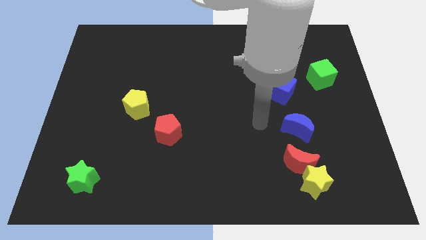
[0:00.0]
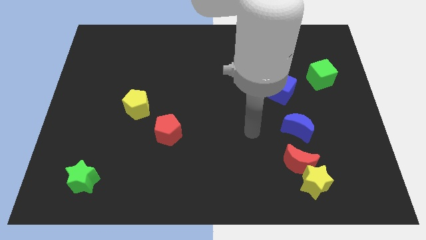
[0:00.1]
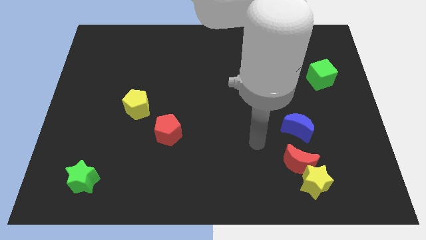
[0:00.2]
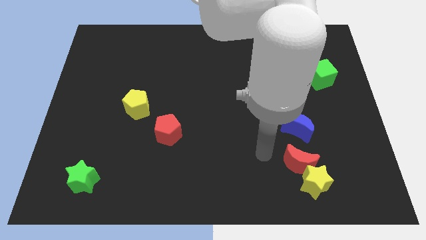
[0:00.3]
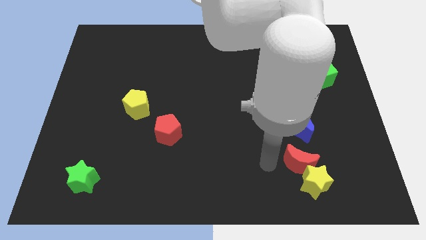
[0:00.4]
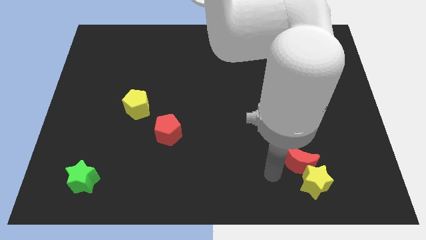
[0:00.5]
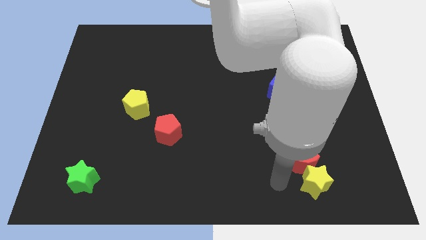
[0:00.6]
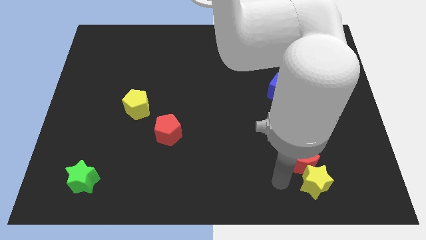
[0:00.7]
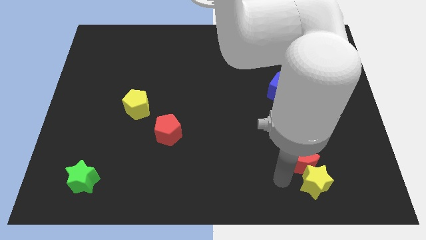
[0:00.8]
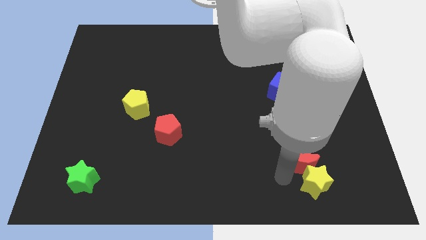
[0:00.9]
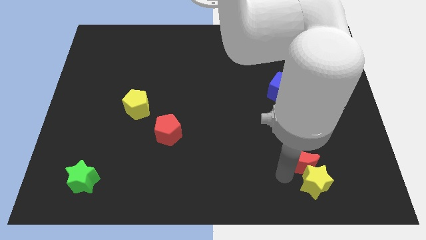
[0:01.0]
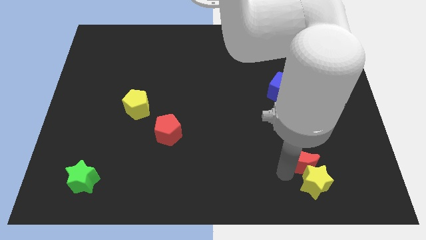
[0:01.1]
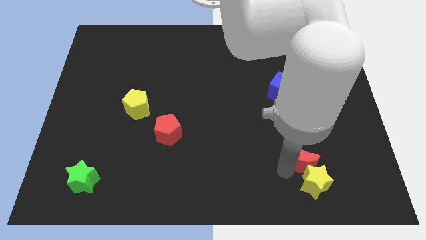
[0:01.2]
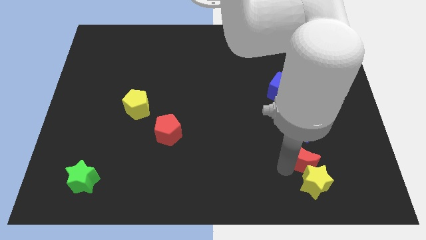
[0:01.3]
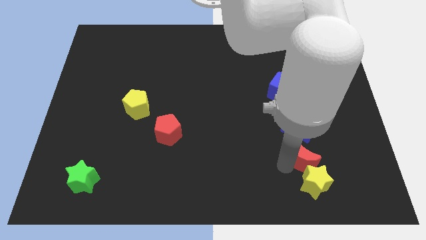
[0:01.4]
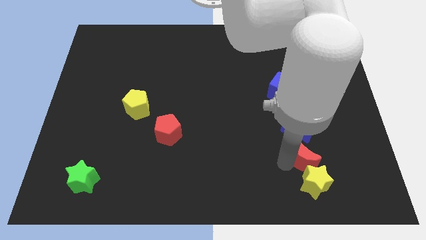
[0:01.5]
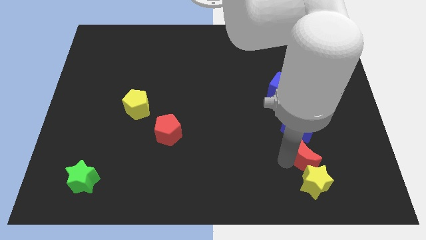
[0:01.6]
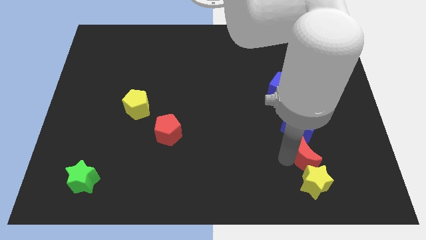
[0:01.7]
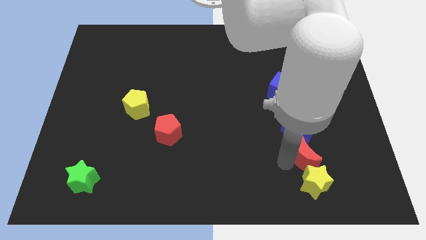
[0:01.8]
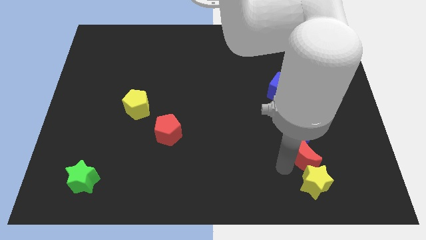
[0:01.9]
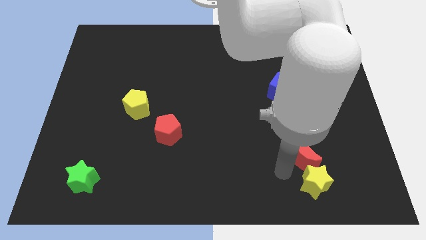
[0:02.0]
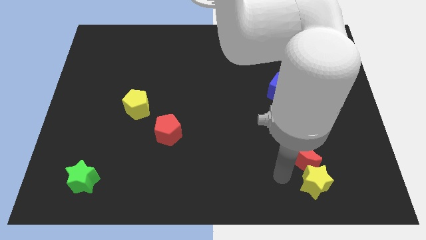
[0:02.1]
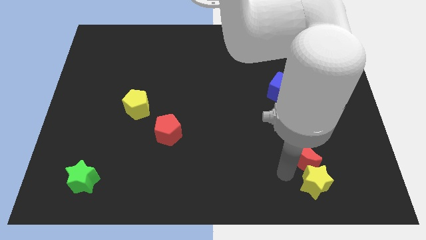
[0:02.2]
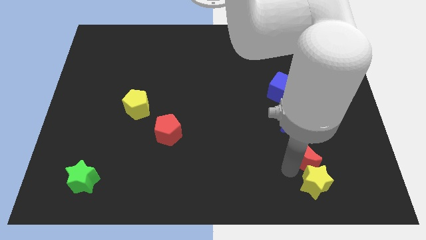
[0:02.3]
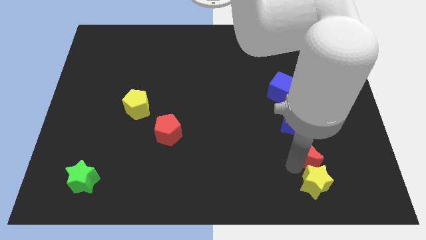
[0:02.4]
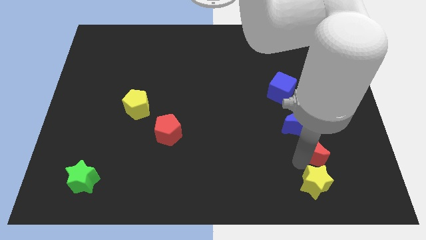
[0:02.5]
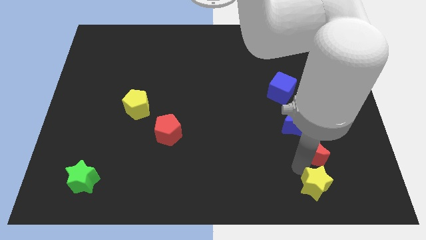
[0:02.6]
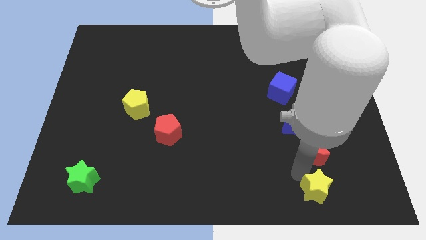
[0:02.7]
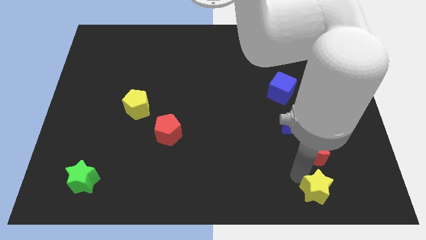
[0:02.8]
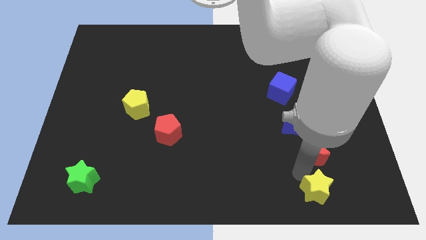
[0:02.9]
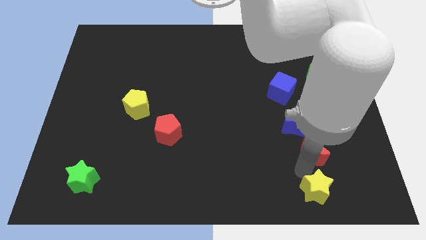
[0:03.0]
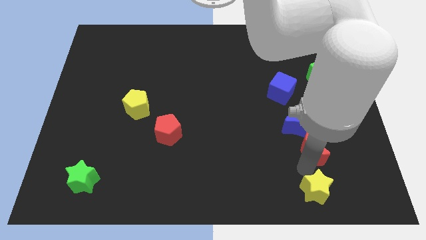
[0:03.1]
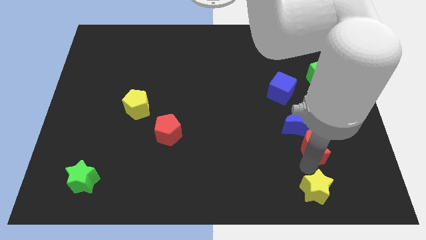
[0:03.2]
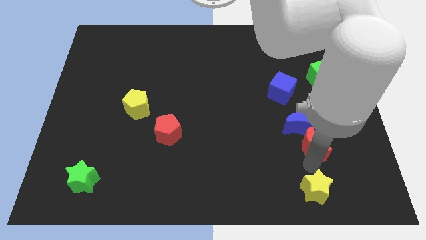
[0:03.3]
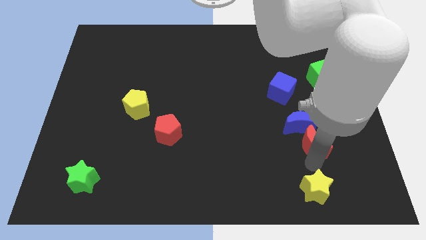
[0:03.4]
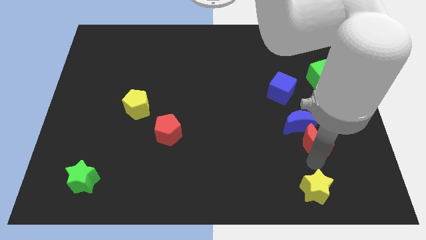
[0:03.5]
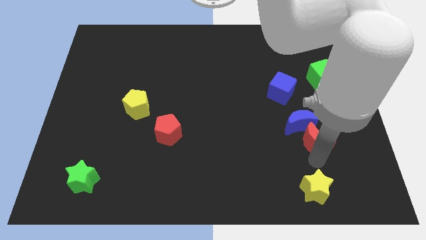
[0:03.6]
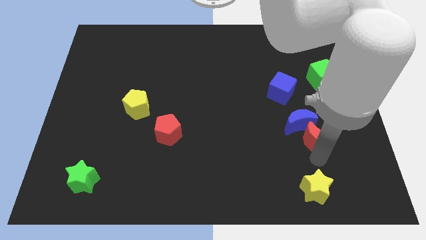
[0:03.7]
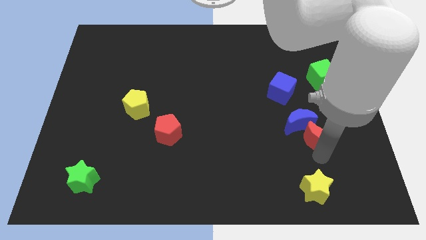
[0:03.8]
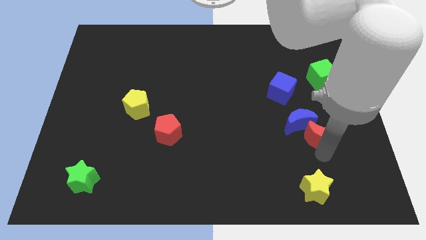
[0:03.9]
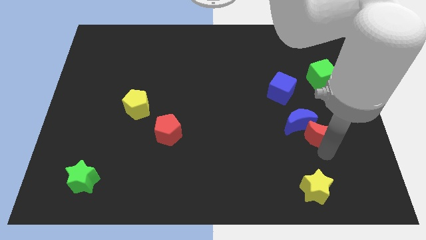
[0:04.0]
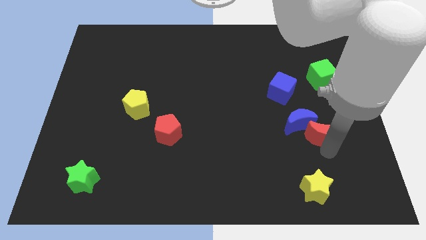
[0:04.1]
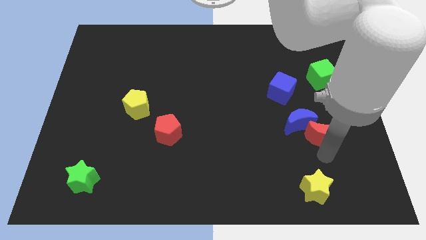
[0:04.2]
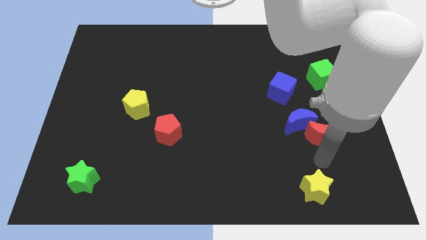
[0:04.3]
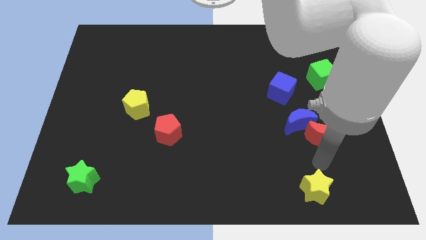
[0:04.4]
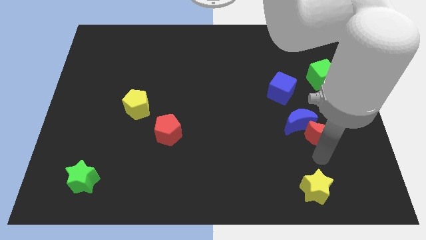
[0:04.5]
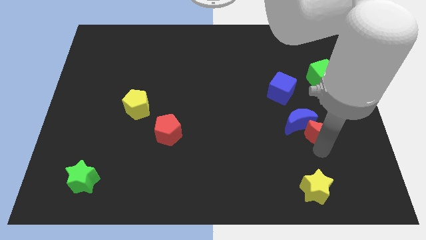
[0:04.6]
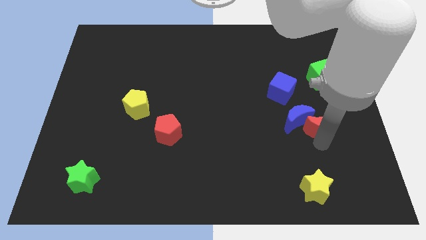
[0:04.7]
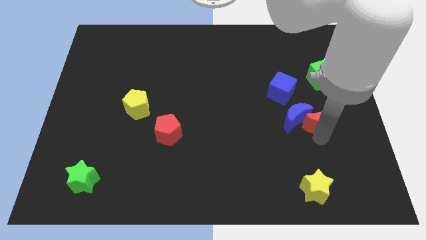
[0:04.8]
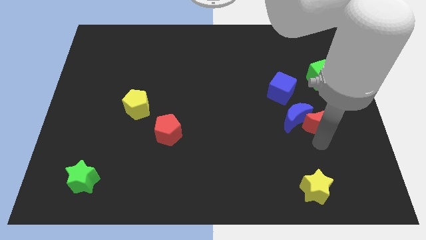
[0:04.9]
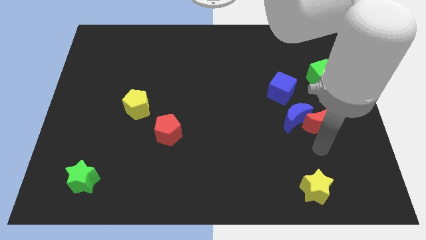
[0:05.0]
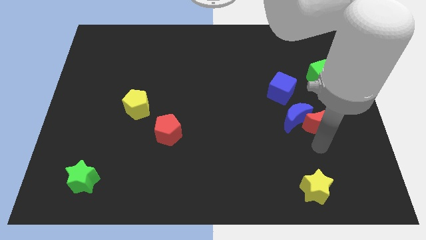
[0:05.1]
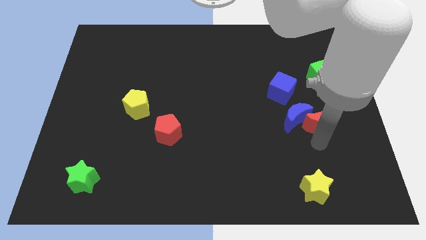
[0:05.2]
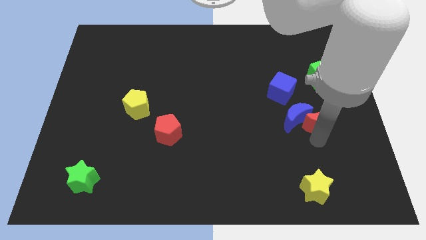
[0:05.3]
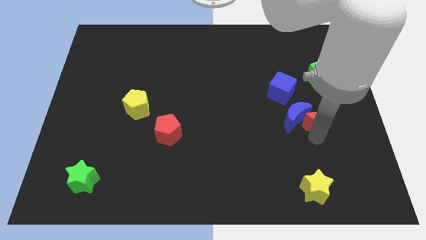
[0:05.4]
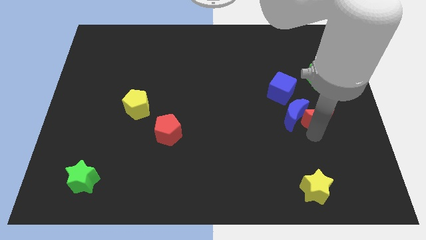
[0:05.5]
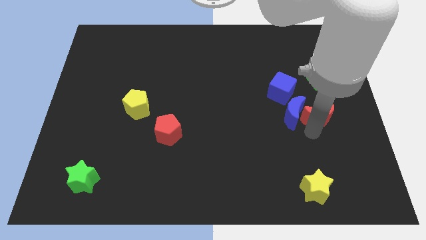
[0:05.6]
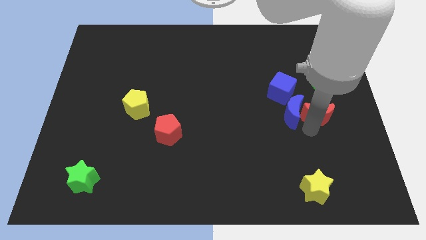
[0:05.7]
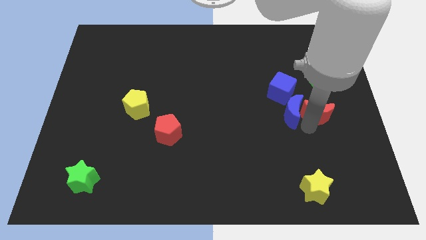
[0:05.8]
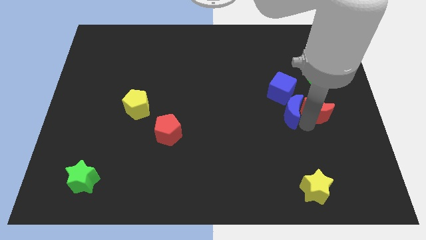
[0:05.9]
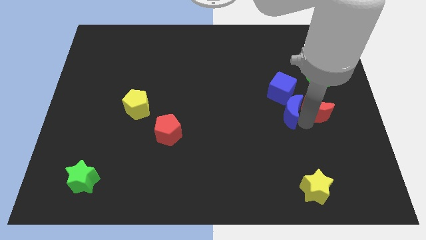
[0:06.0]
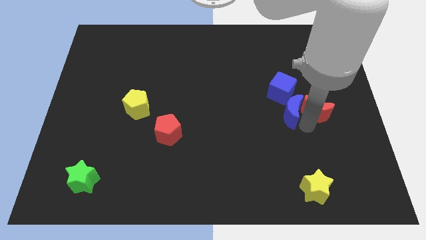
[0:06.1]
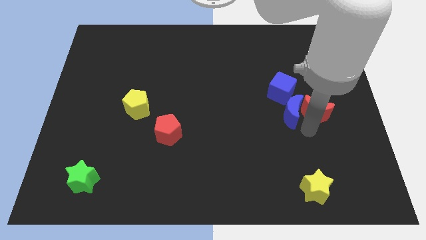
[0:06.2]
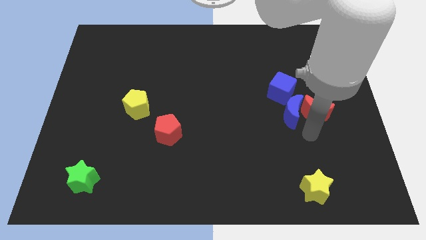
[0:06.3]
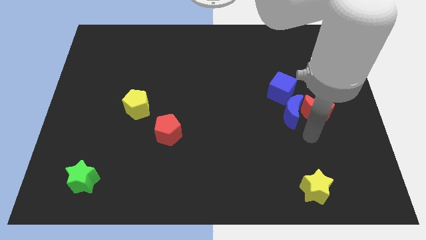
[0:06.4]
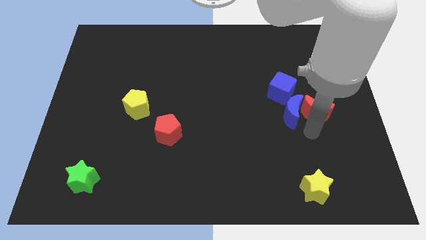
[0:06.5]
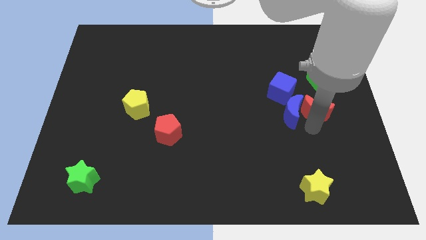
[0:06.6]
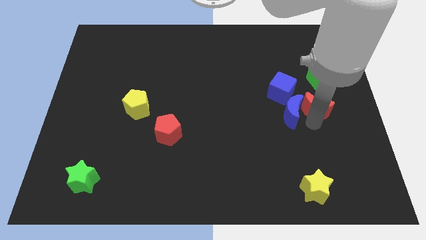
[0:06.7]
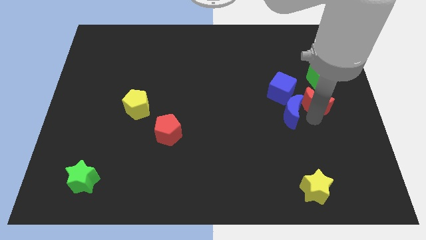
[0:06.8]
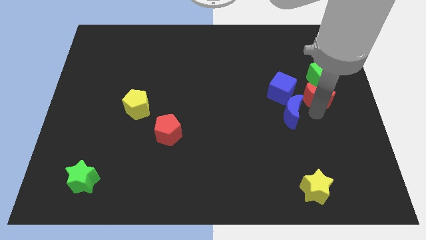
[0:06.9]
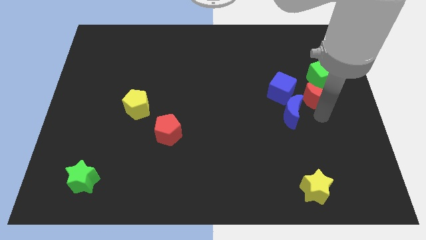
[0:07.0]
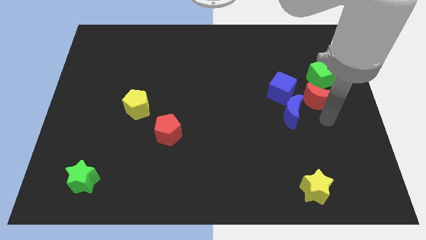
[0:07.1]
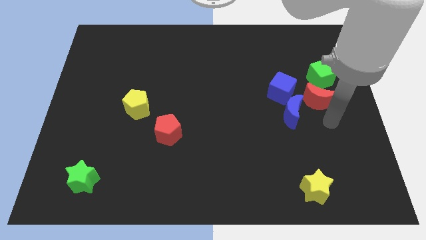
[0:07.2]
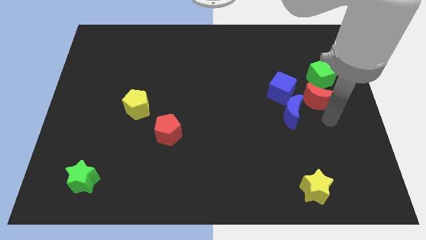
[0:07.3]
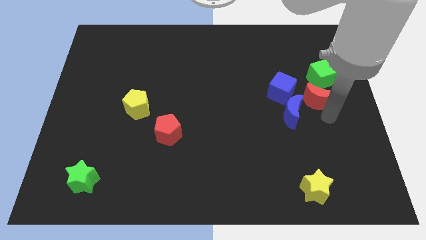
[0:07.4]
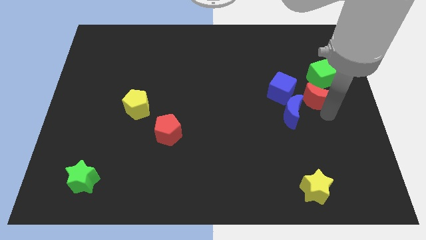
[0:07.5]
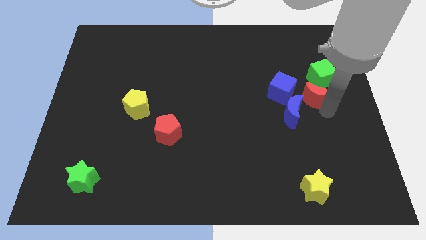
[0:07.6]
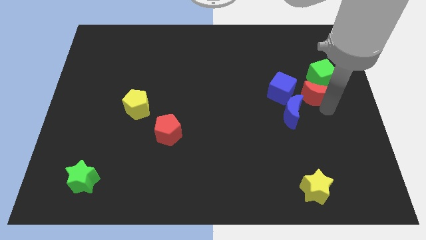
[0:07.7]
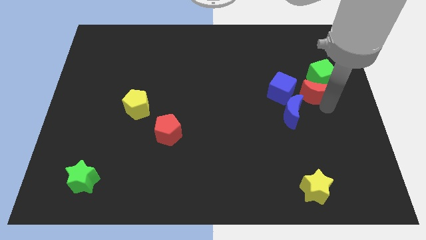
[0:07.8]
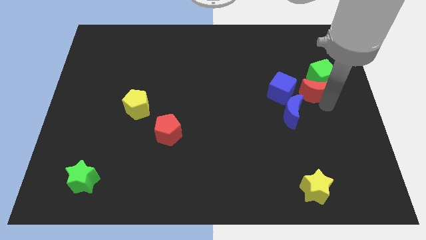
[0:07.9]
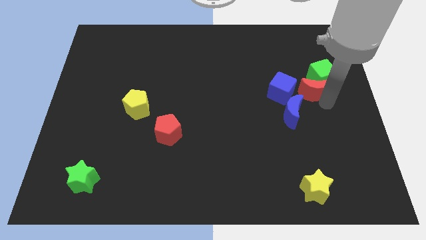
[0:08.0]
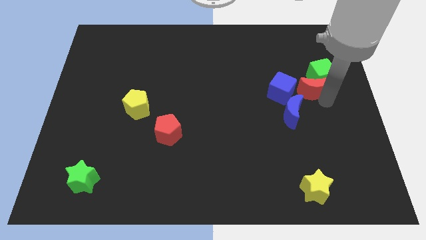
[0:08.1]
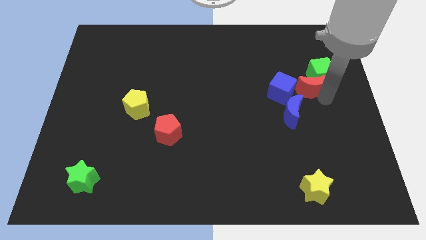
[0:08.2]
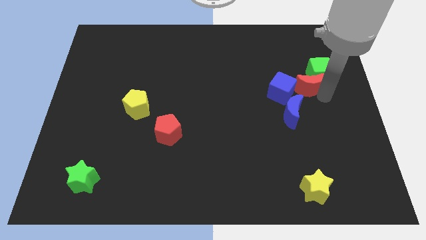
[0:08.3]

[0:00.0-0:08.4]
slide the red moon upwards
